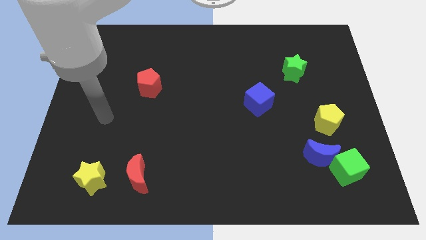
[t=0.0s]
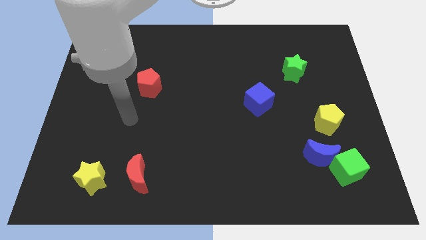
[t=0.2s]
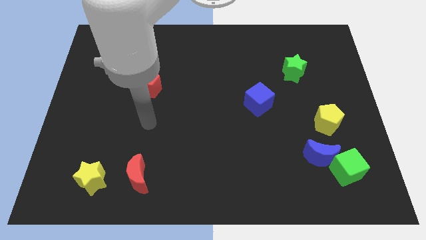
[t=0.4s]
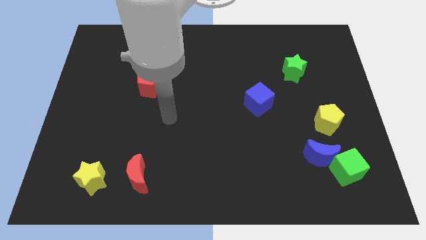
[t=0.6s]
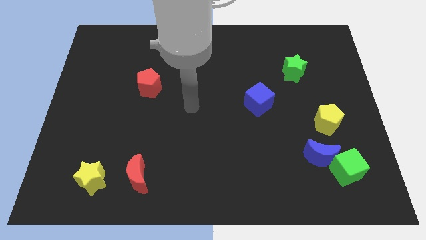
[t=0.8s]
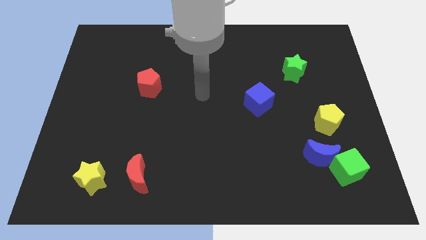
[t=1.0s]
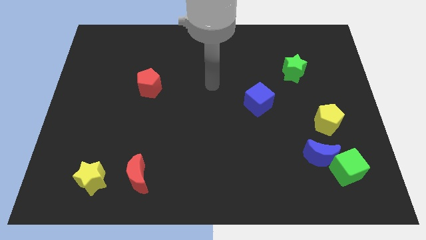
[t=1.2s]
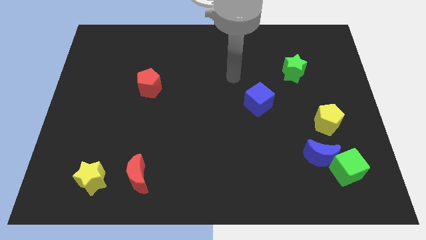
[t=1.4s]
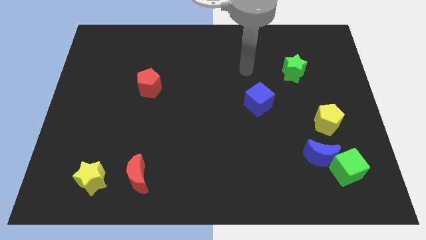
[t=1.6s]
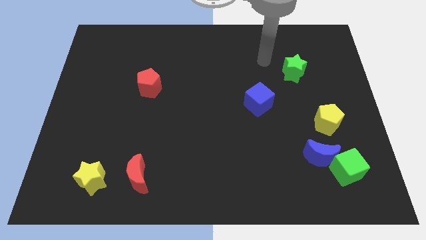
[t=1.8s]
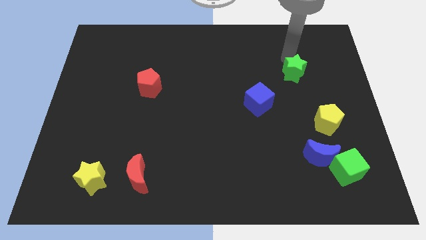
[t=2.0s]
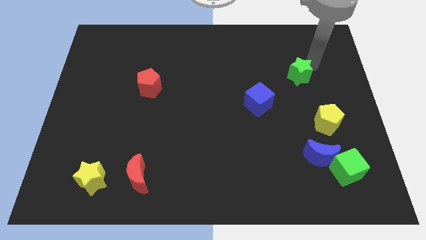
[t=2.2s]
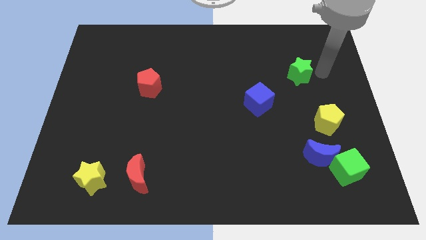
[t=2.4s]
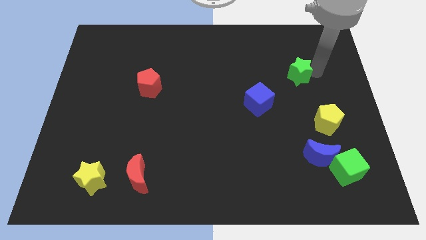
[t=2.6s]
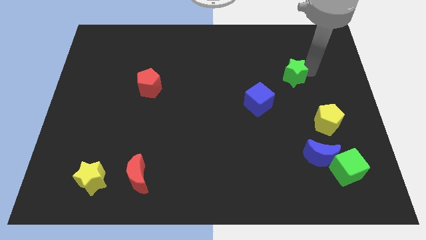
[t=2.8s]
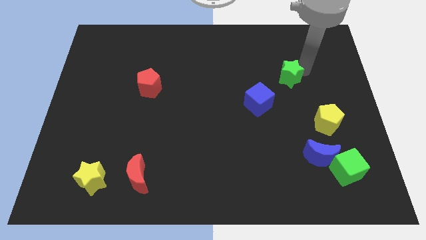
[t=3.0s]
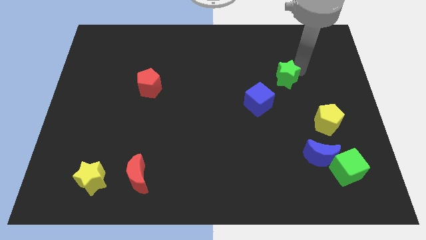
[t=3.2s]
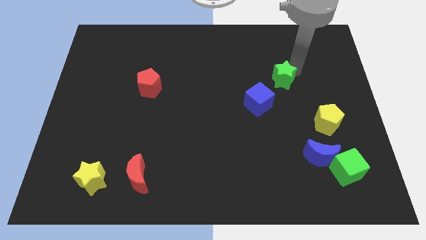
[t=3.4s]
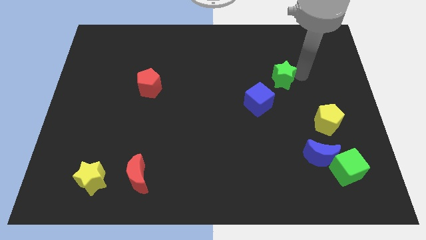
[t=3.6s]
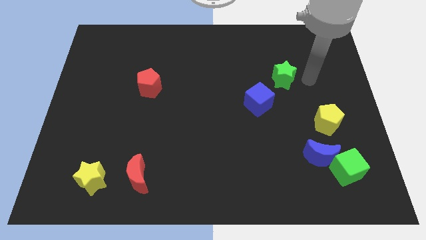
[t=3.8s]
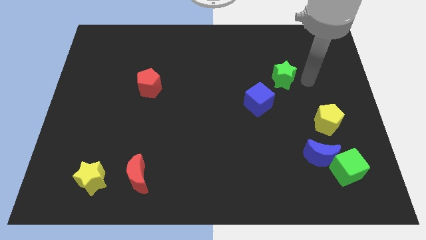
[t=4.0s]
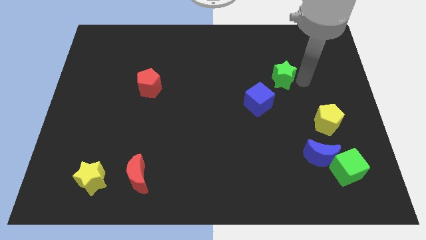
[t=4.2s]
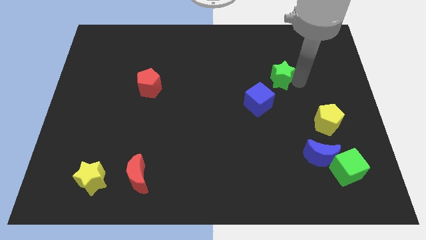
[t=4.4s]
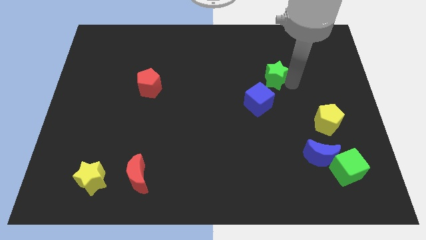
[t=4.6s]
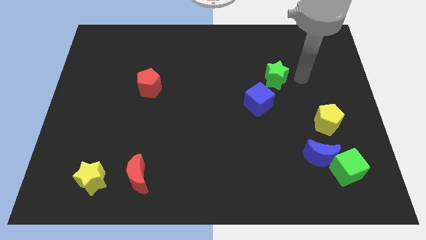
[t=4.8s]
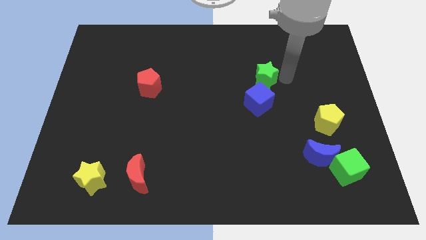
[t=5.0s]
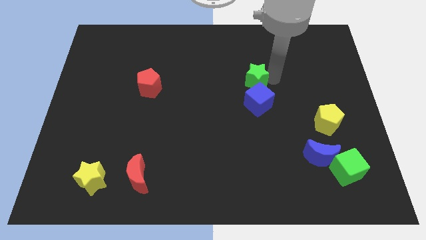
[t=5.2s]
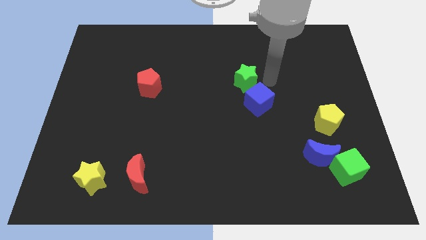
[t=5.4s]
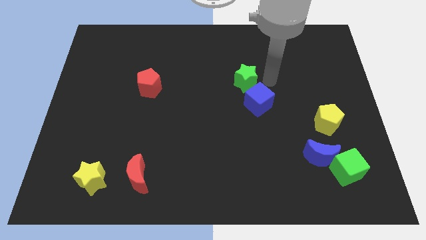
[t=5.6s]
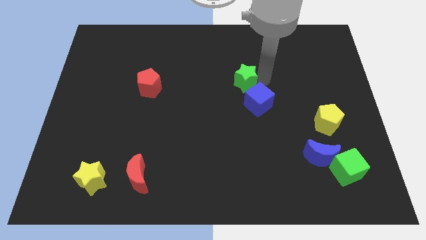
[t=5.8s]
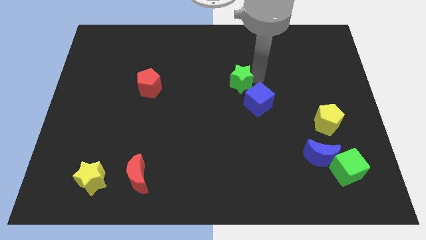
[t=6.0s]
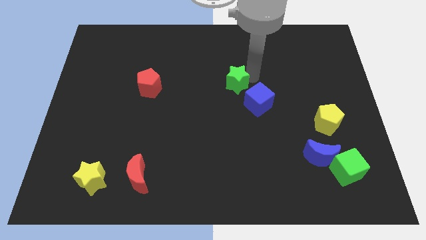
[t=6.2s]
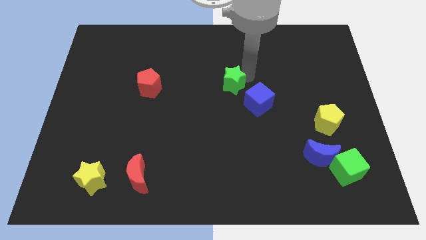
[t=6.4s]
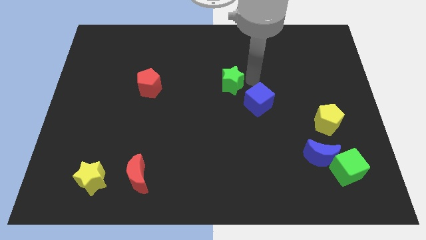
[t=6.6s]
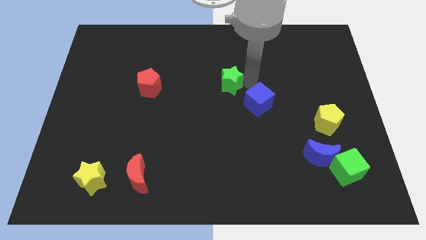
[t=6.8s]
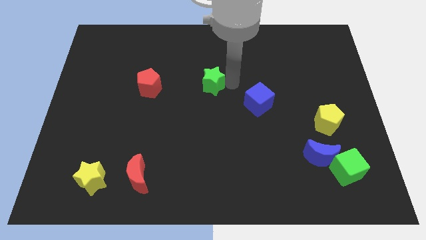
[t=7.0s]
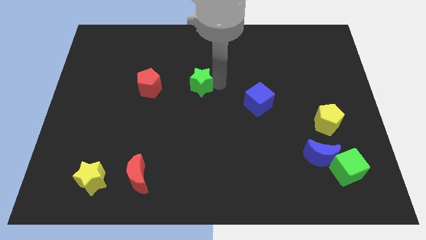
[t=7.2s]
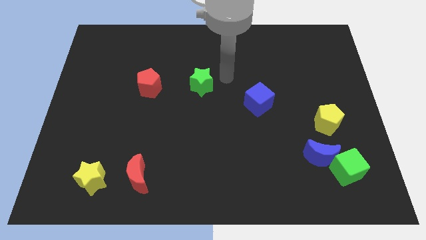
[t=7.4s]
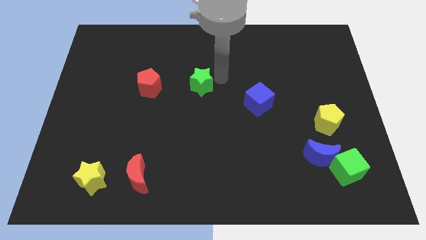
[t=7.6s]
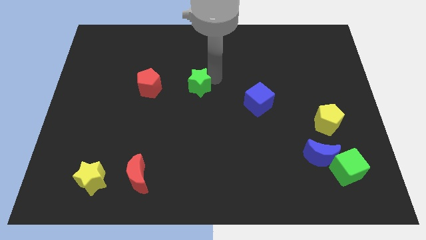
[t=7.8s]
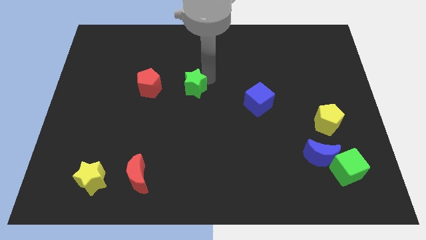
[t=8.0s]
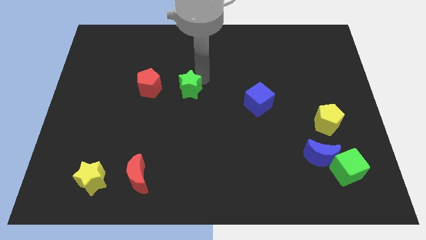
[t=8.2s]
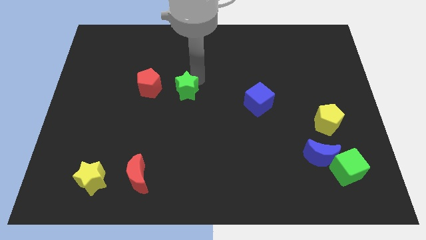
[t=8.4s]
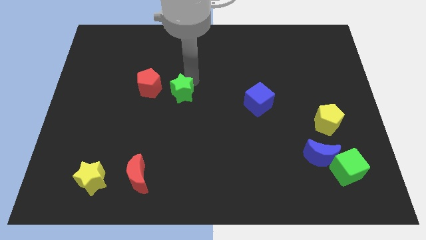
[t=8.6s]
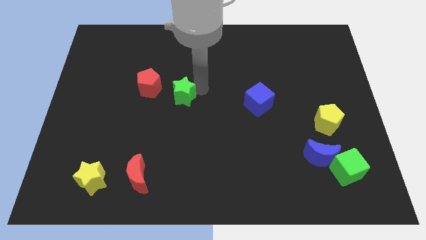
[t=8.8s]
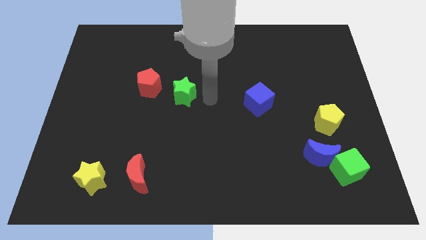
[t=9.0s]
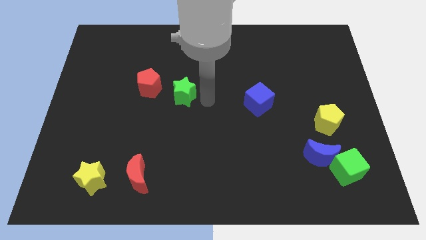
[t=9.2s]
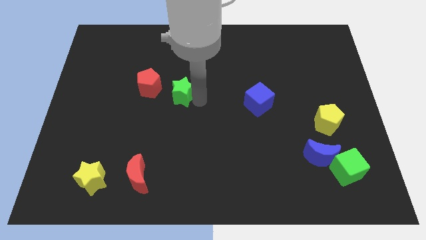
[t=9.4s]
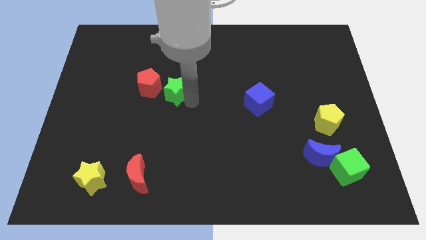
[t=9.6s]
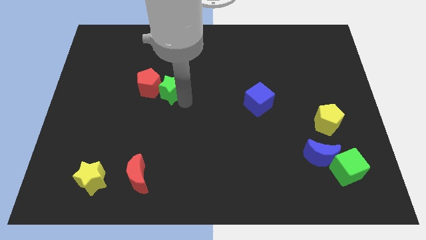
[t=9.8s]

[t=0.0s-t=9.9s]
push the green star next to the red pentagon

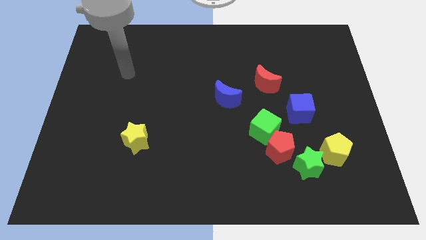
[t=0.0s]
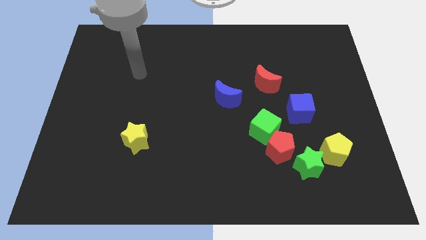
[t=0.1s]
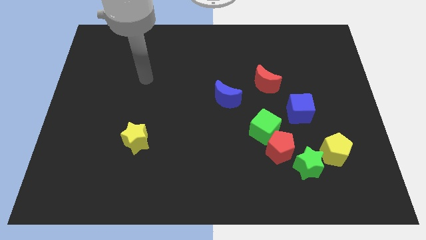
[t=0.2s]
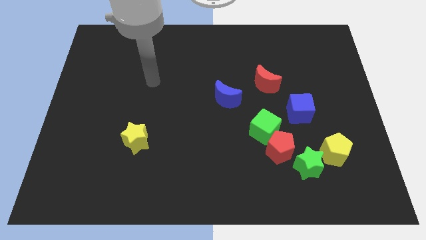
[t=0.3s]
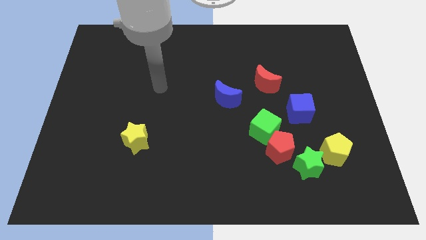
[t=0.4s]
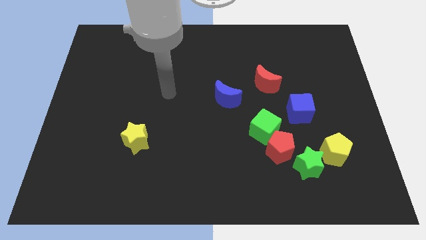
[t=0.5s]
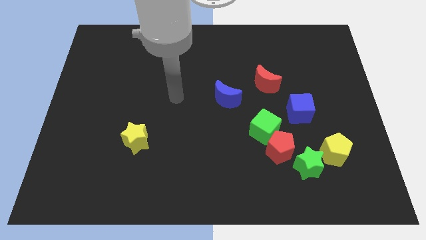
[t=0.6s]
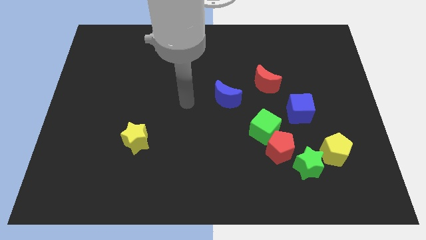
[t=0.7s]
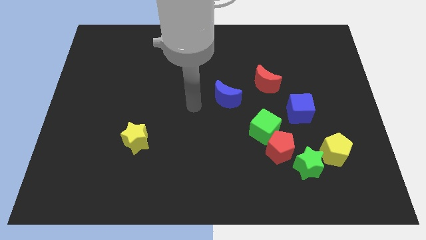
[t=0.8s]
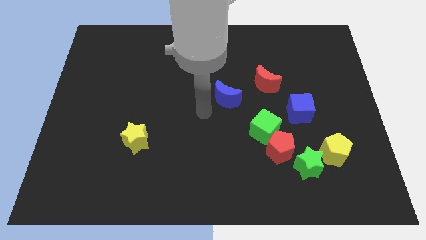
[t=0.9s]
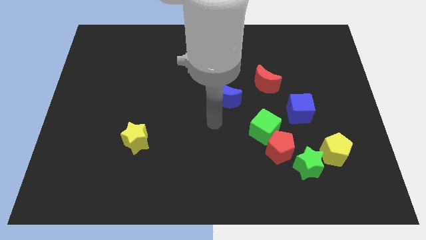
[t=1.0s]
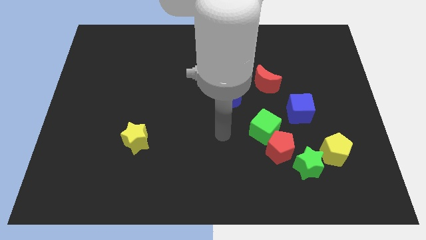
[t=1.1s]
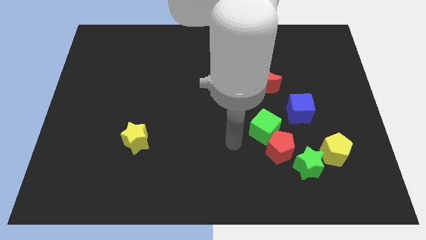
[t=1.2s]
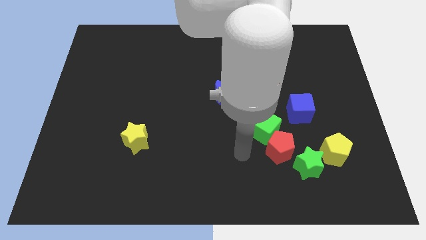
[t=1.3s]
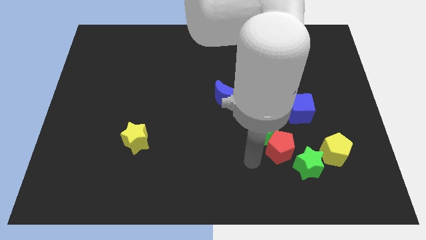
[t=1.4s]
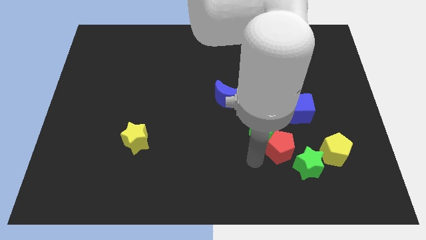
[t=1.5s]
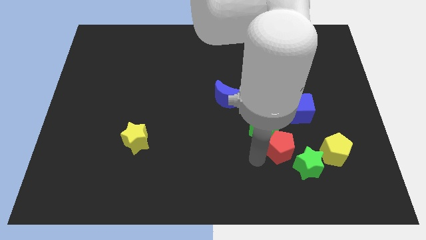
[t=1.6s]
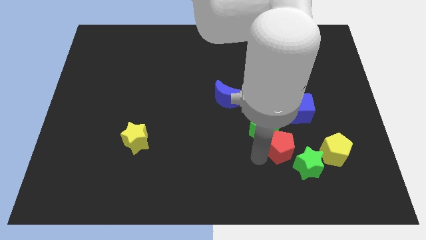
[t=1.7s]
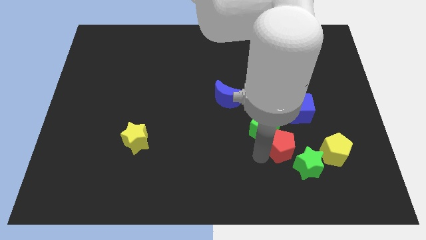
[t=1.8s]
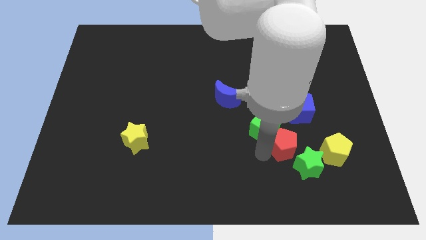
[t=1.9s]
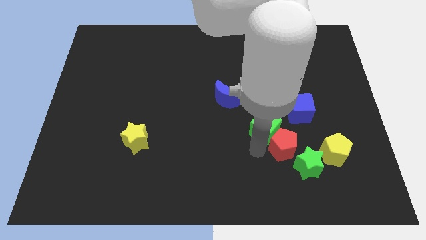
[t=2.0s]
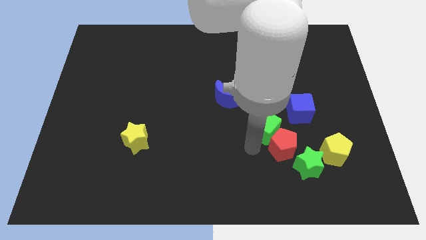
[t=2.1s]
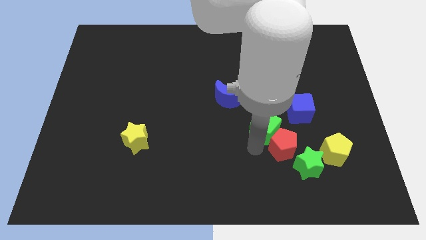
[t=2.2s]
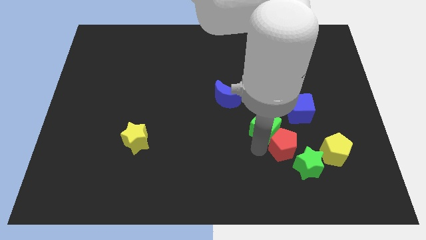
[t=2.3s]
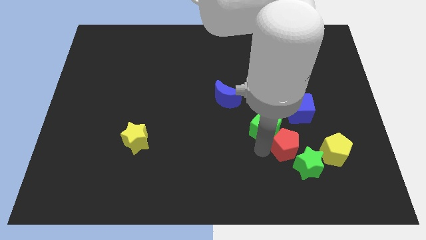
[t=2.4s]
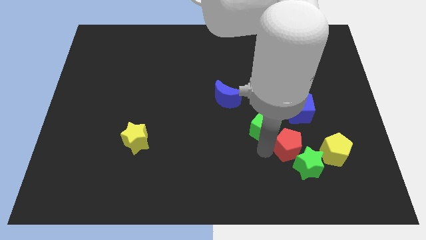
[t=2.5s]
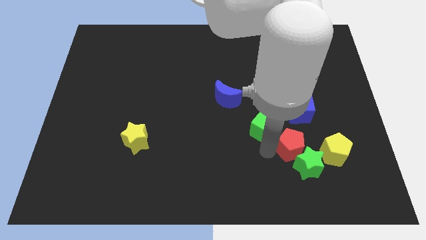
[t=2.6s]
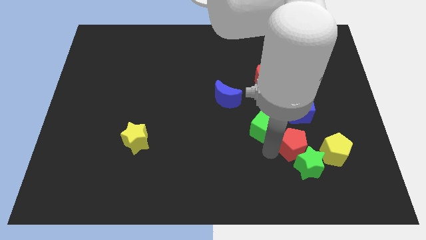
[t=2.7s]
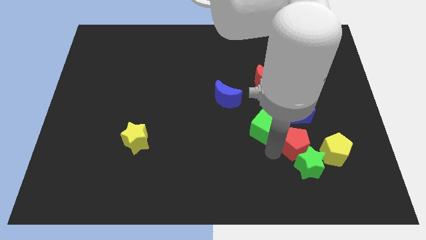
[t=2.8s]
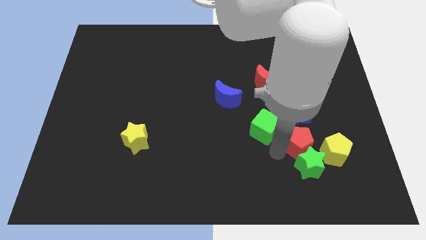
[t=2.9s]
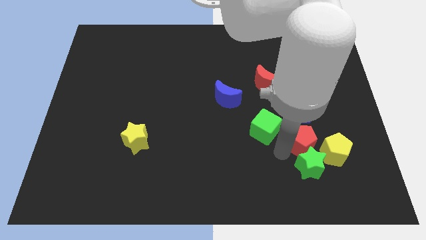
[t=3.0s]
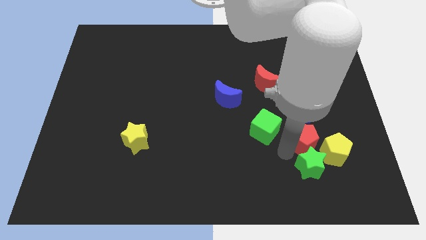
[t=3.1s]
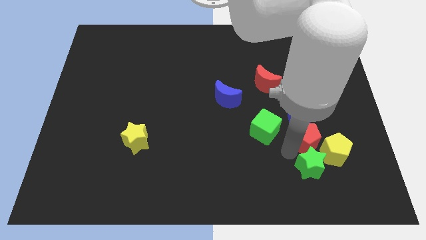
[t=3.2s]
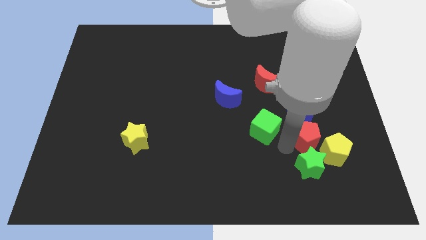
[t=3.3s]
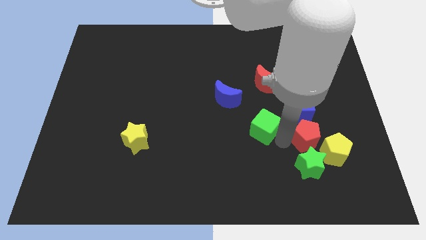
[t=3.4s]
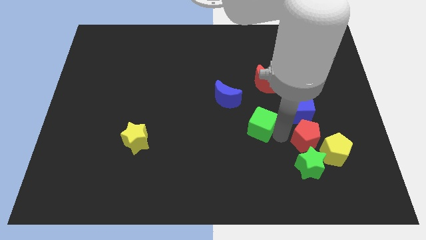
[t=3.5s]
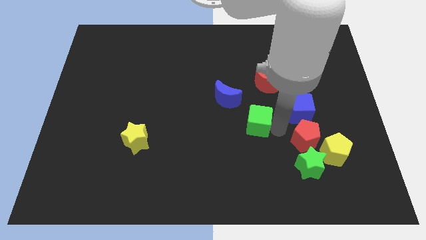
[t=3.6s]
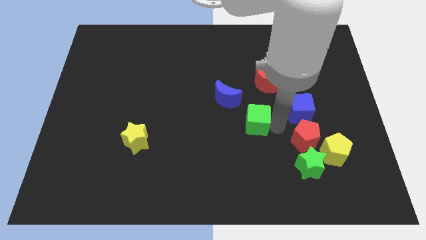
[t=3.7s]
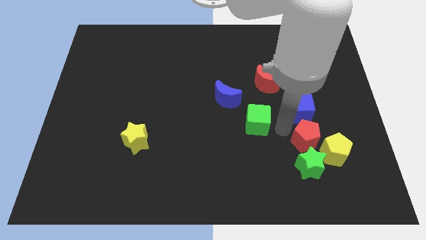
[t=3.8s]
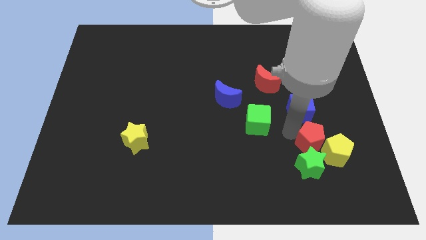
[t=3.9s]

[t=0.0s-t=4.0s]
move the red pentagon next to the yellow pentagon
